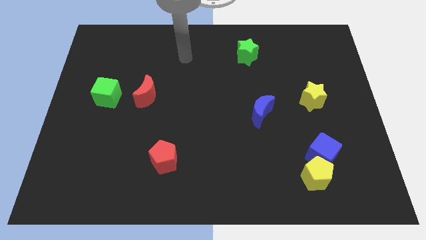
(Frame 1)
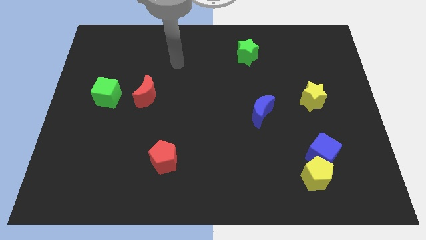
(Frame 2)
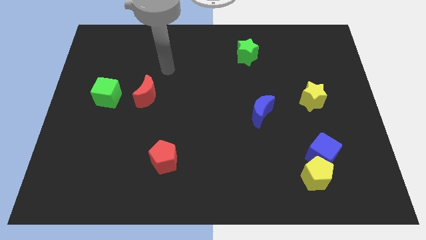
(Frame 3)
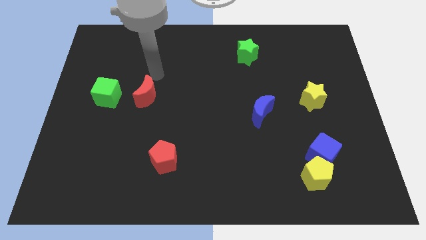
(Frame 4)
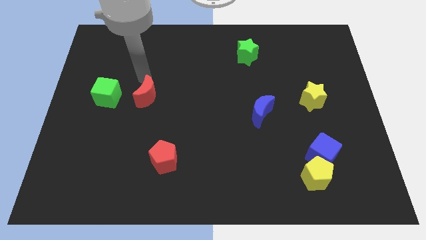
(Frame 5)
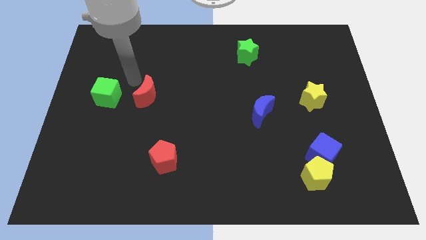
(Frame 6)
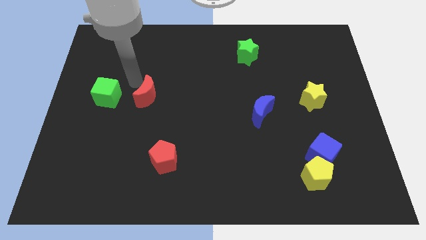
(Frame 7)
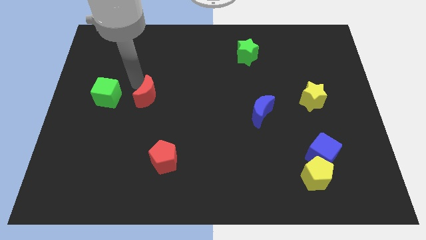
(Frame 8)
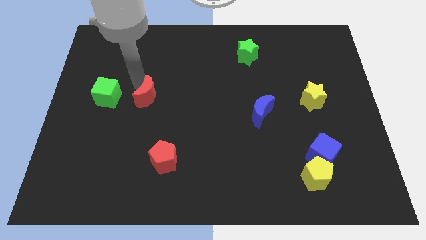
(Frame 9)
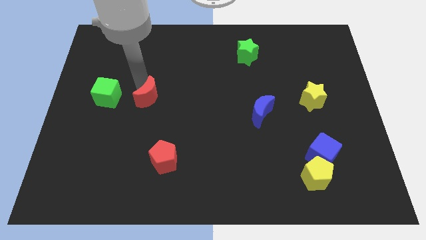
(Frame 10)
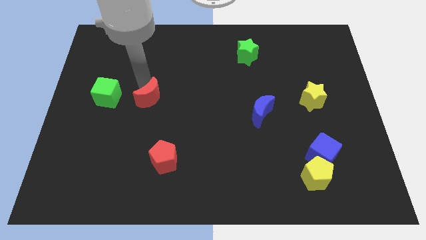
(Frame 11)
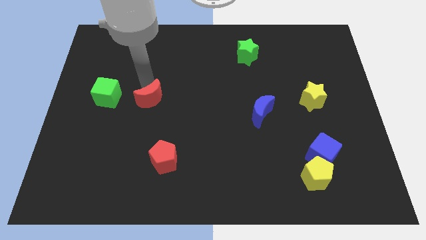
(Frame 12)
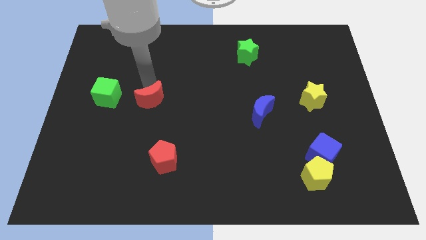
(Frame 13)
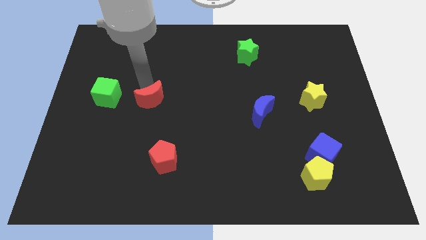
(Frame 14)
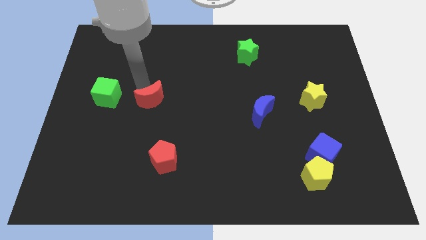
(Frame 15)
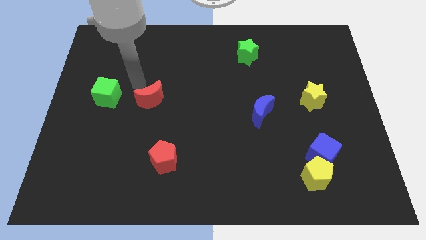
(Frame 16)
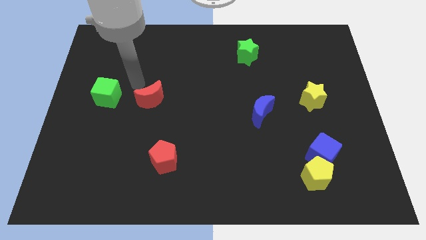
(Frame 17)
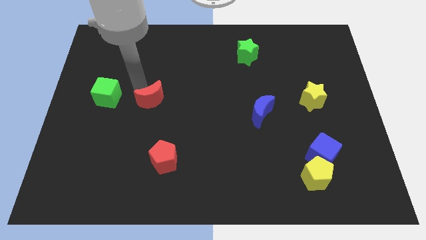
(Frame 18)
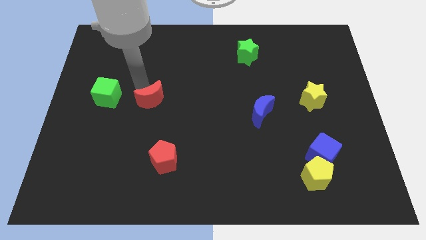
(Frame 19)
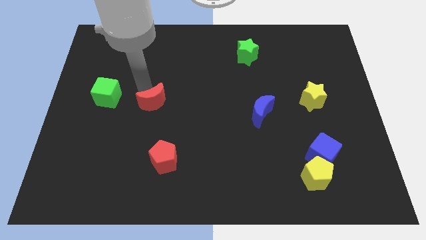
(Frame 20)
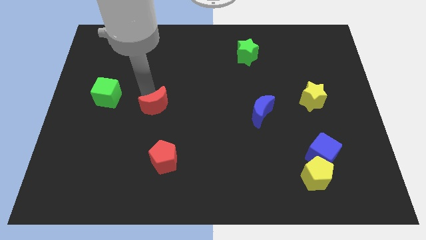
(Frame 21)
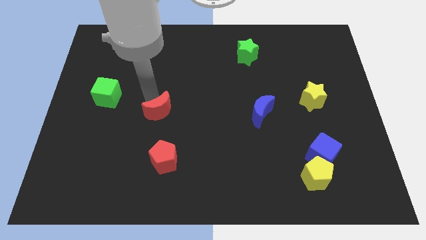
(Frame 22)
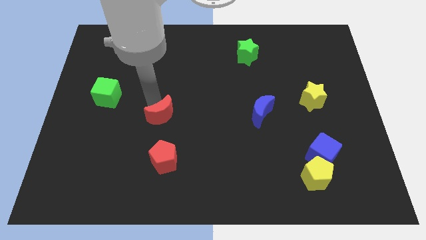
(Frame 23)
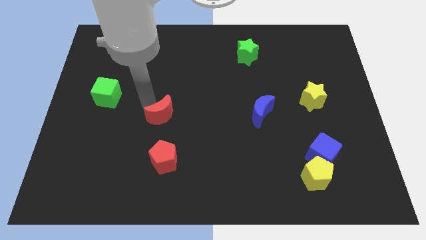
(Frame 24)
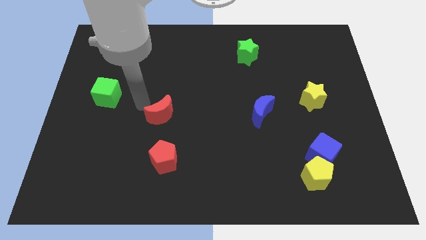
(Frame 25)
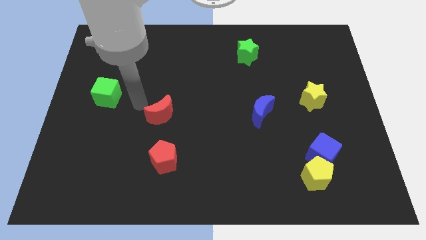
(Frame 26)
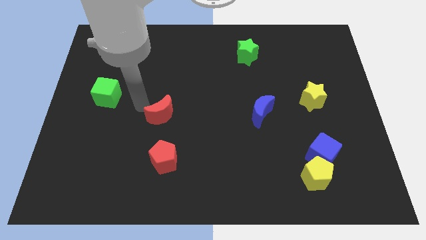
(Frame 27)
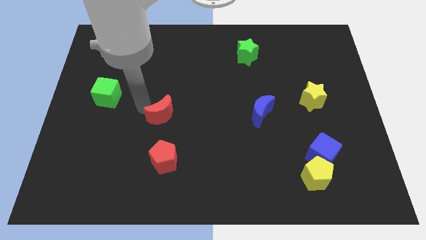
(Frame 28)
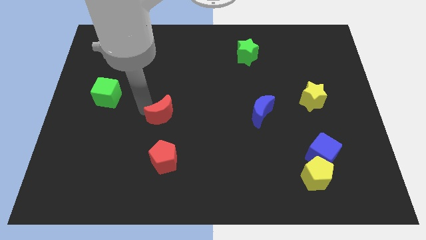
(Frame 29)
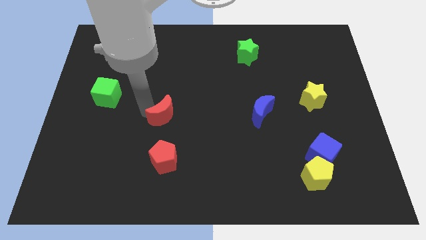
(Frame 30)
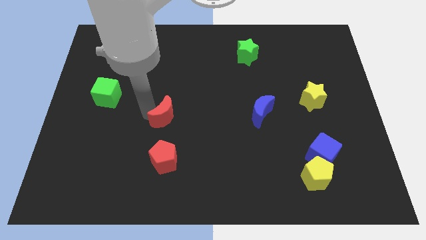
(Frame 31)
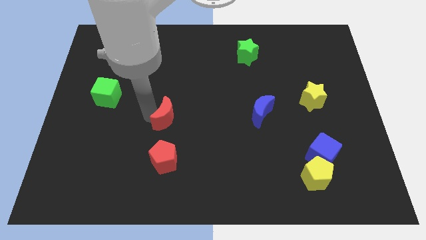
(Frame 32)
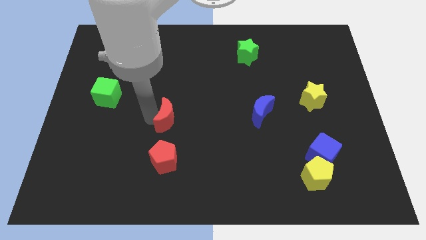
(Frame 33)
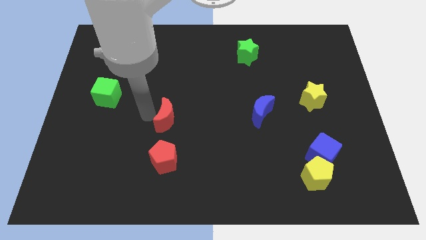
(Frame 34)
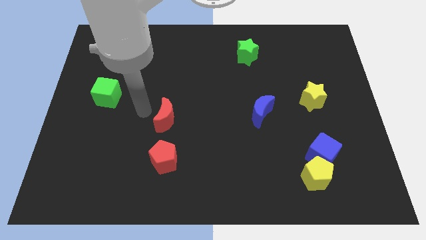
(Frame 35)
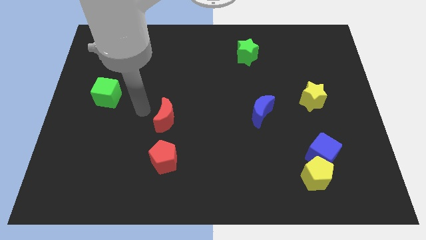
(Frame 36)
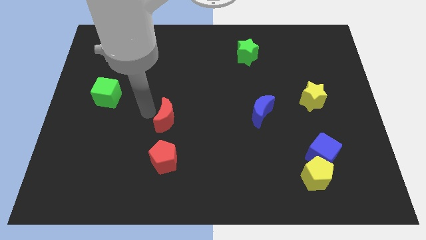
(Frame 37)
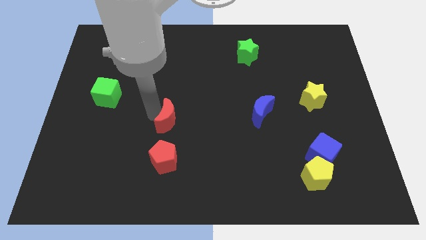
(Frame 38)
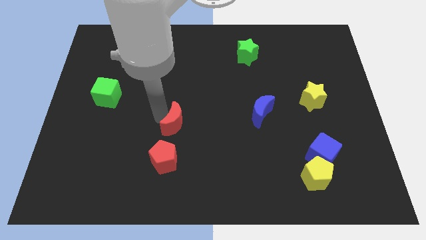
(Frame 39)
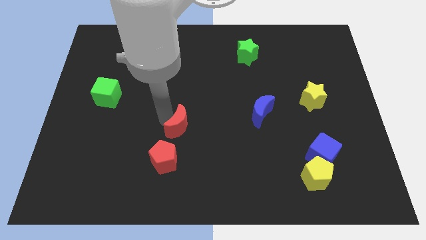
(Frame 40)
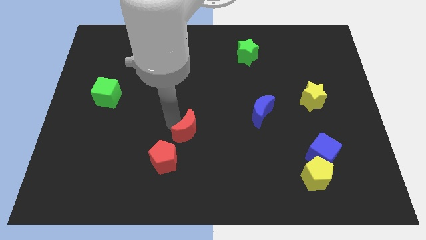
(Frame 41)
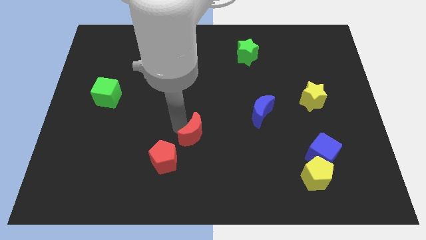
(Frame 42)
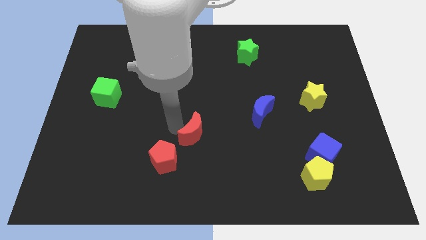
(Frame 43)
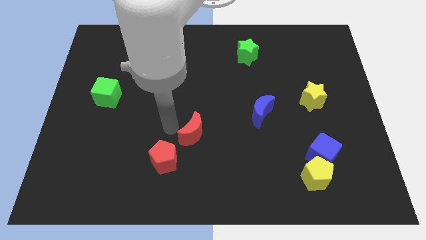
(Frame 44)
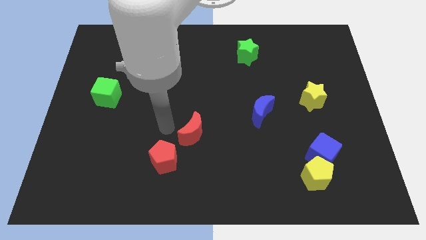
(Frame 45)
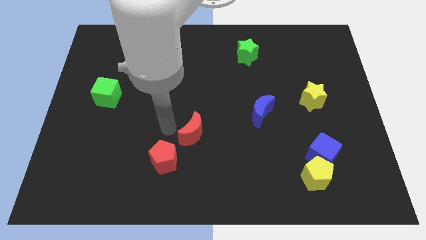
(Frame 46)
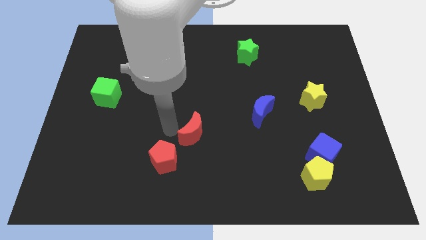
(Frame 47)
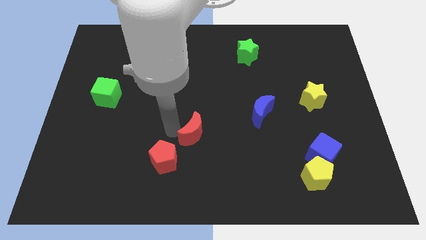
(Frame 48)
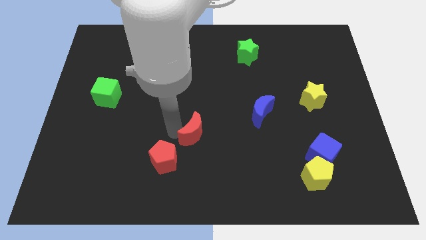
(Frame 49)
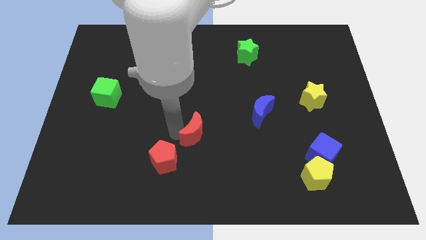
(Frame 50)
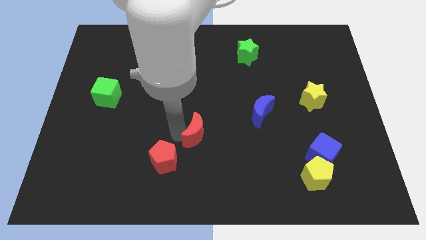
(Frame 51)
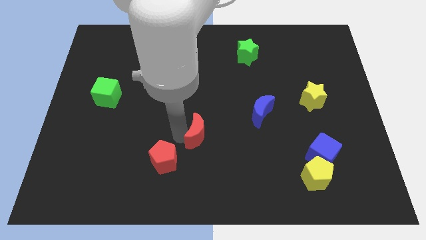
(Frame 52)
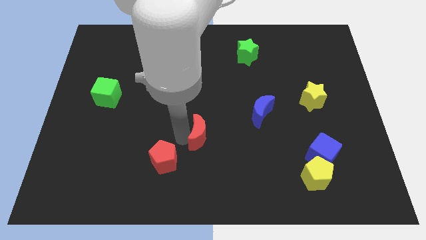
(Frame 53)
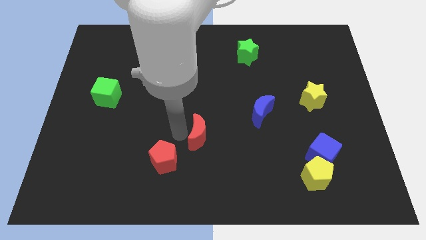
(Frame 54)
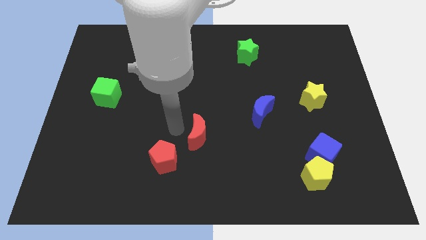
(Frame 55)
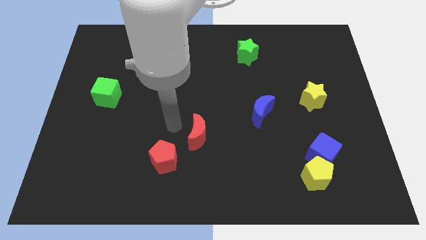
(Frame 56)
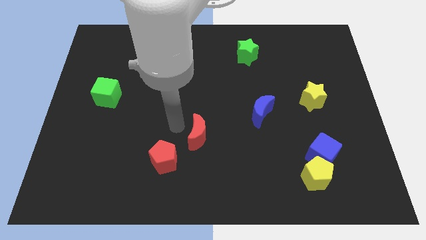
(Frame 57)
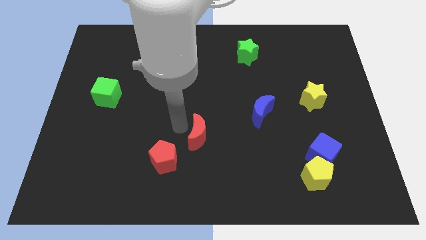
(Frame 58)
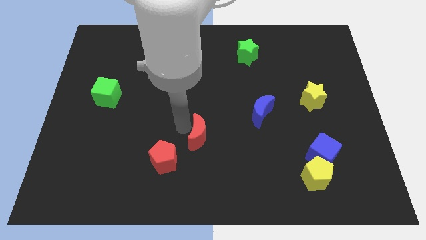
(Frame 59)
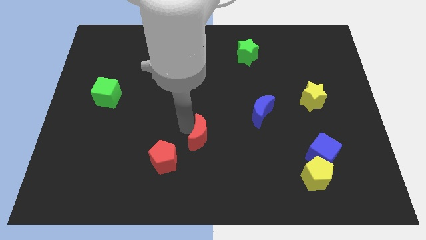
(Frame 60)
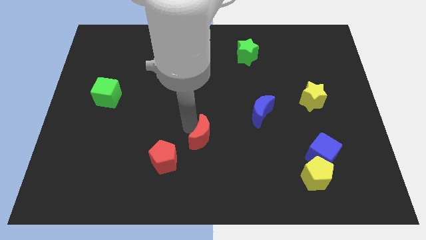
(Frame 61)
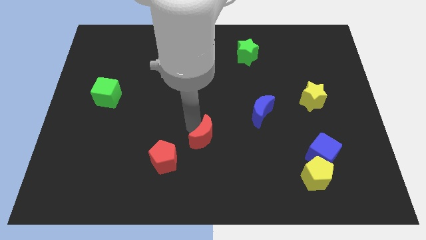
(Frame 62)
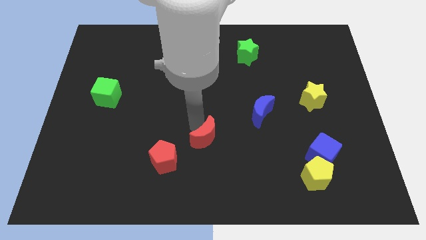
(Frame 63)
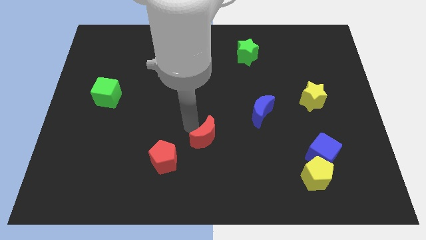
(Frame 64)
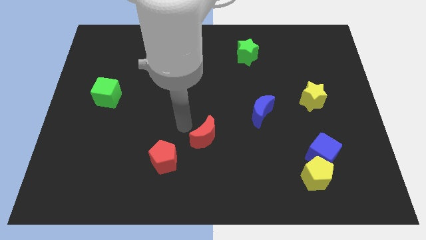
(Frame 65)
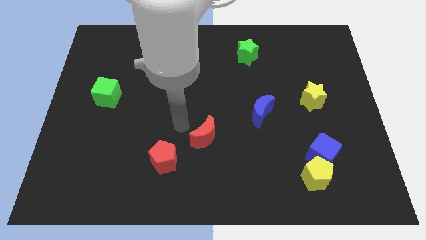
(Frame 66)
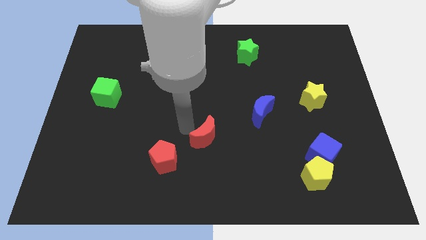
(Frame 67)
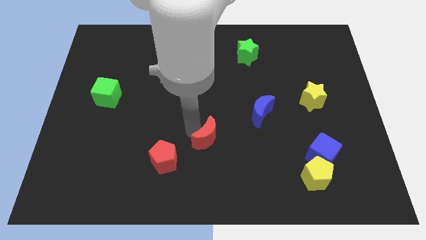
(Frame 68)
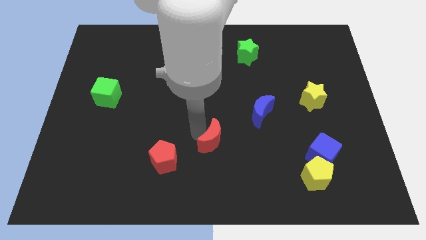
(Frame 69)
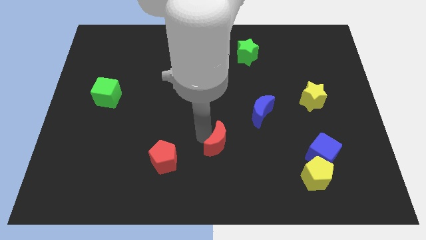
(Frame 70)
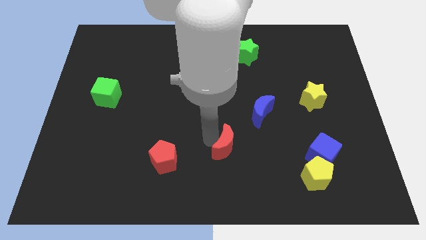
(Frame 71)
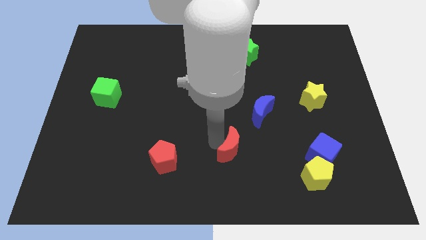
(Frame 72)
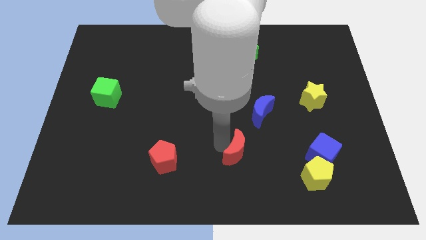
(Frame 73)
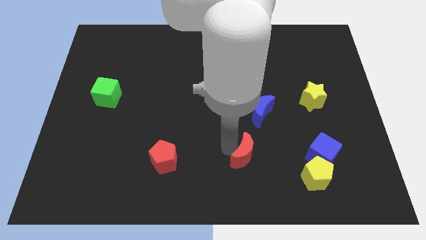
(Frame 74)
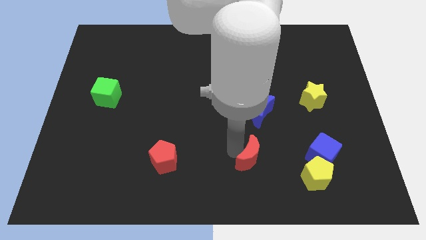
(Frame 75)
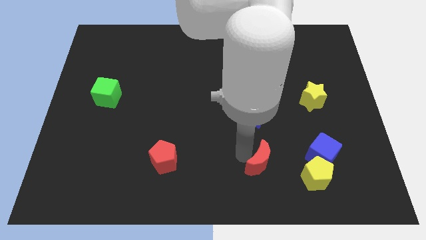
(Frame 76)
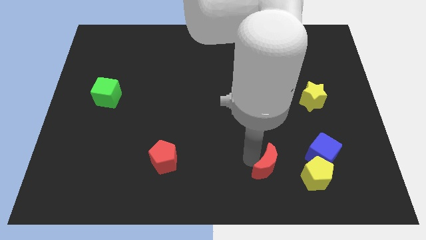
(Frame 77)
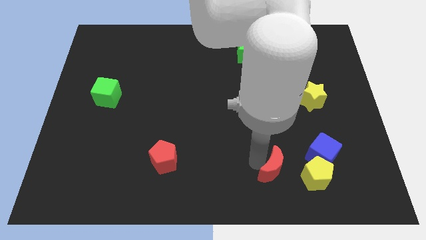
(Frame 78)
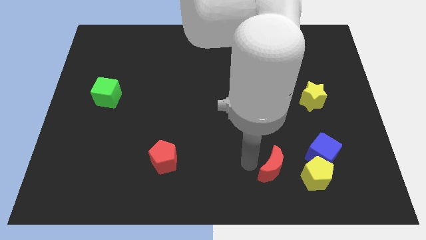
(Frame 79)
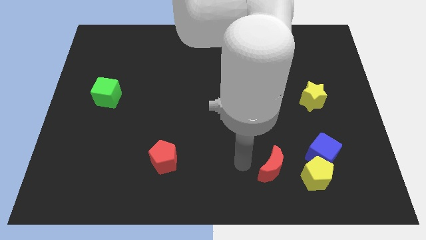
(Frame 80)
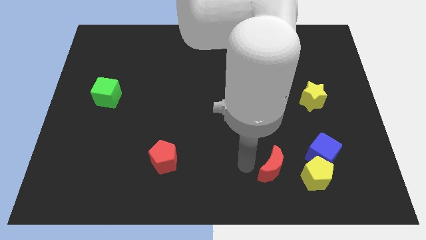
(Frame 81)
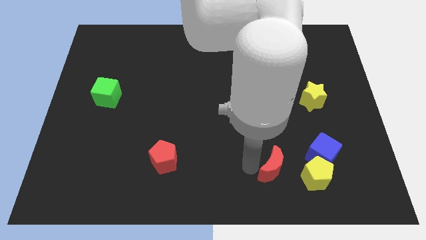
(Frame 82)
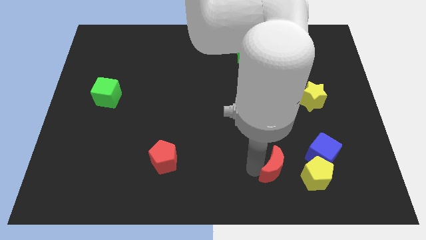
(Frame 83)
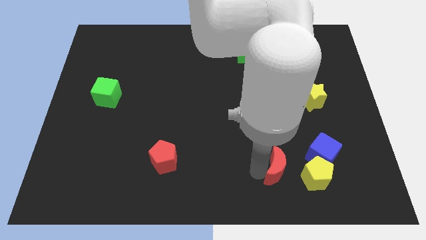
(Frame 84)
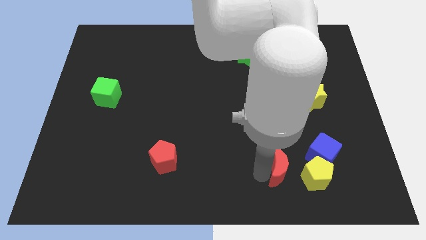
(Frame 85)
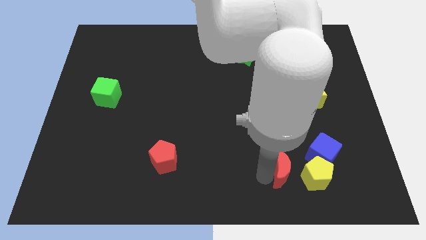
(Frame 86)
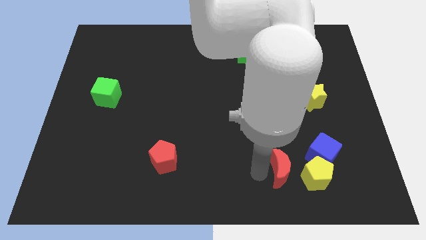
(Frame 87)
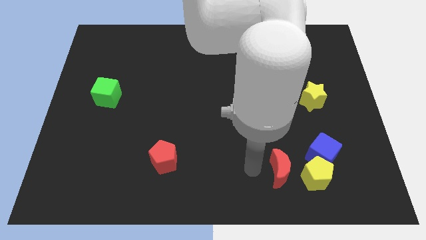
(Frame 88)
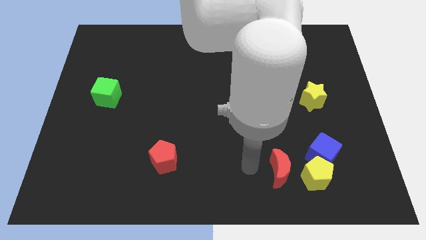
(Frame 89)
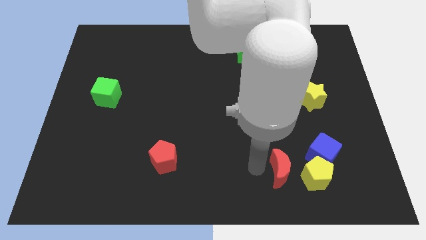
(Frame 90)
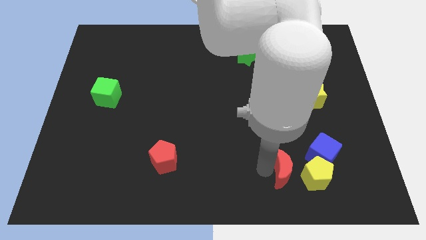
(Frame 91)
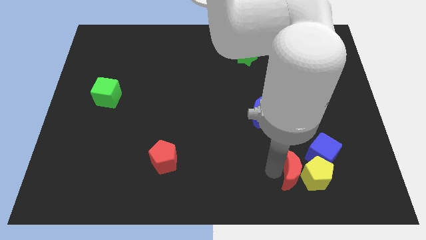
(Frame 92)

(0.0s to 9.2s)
put the red moon next to the yellow pentagon
